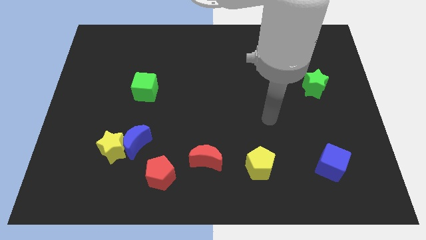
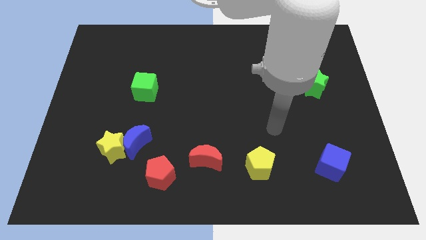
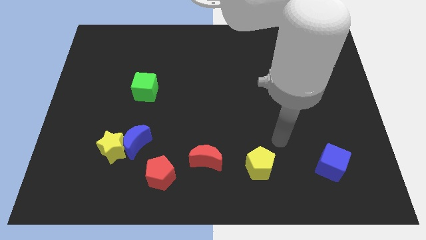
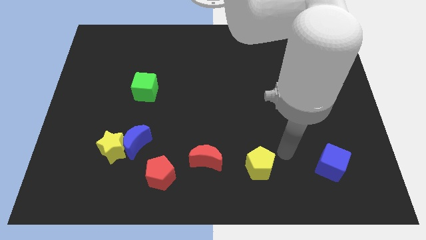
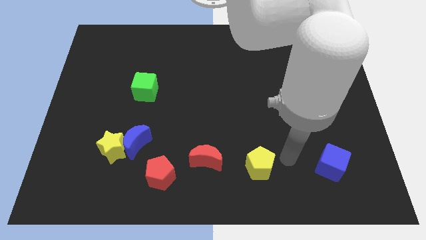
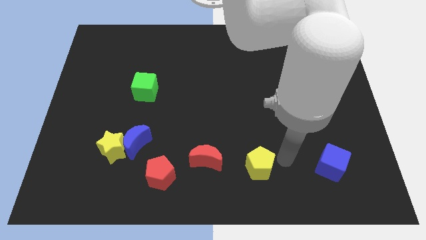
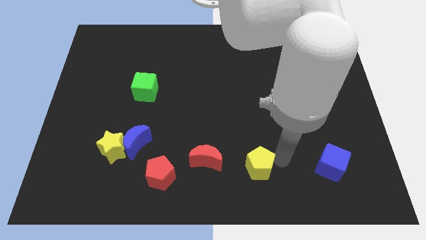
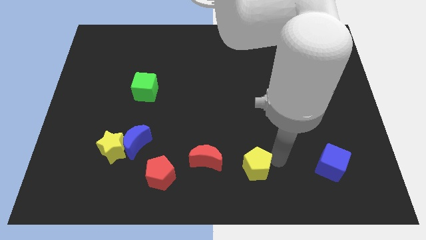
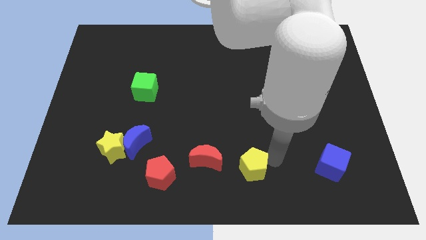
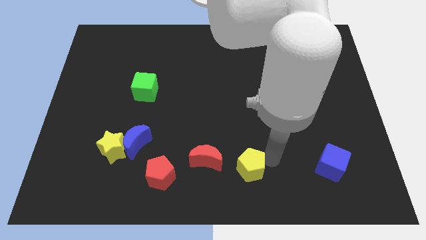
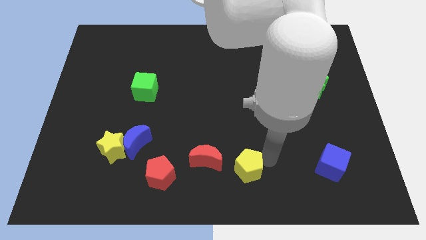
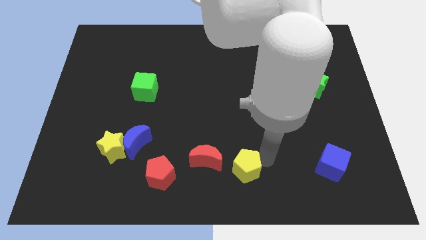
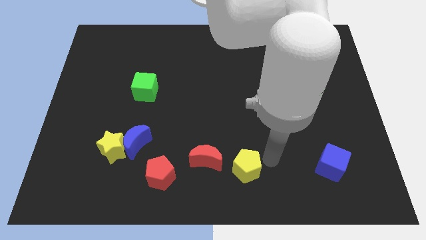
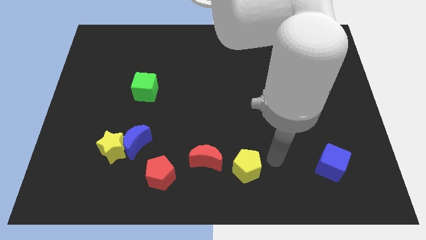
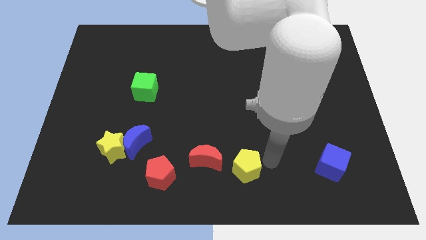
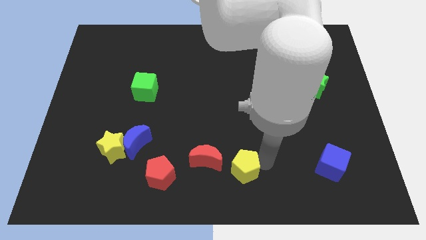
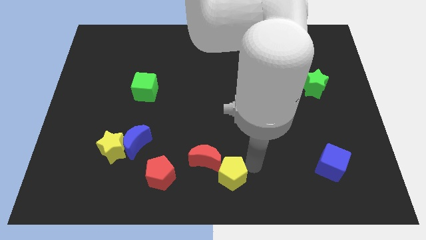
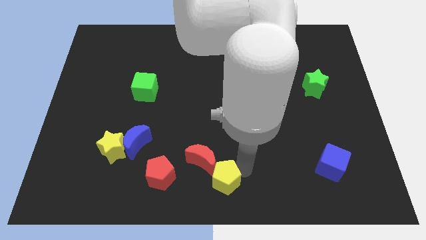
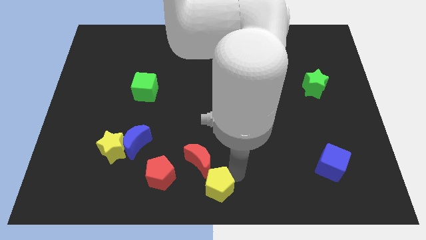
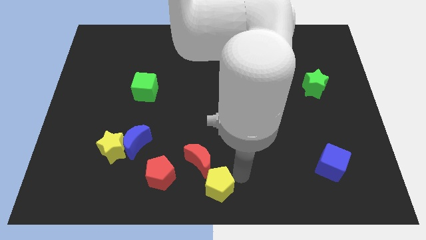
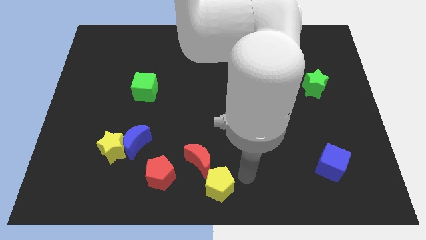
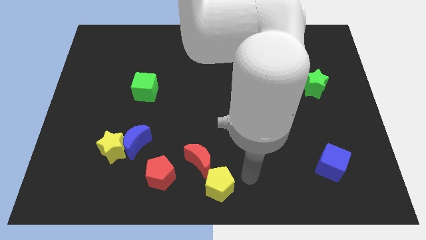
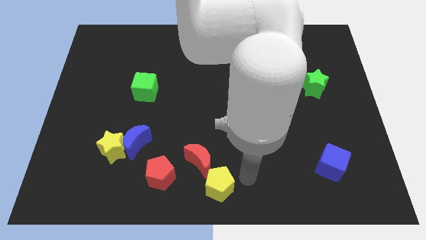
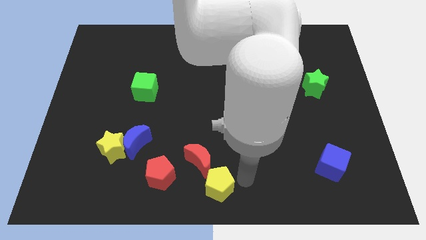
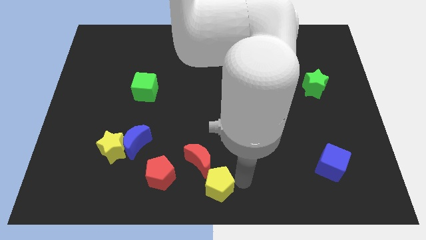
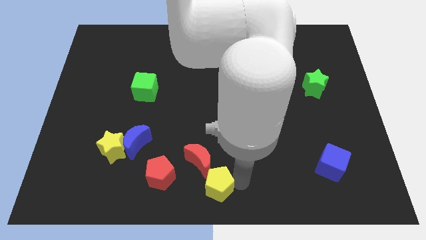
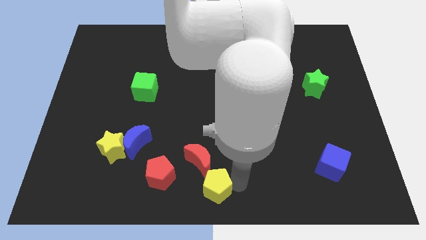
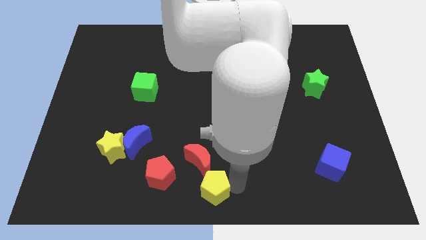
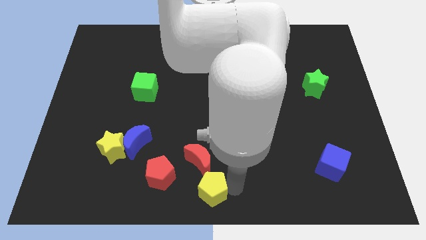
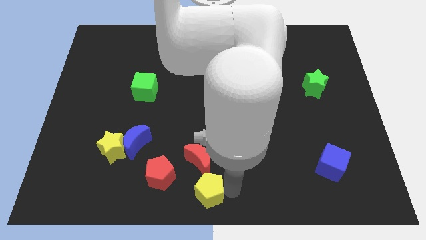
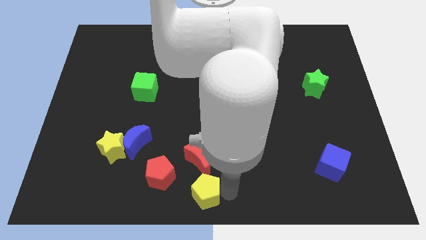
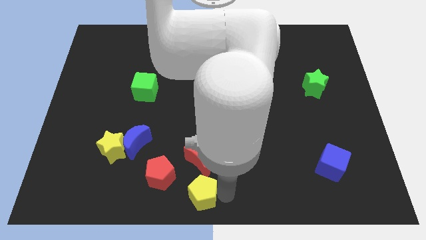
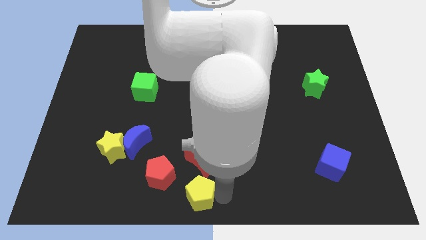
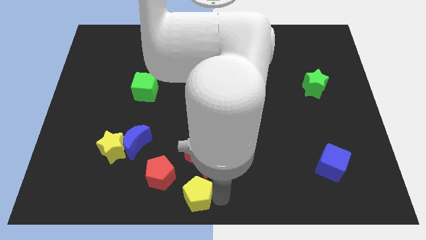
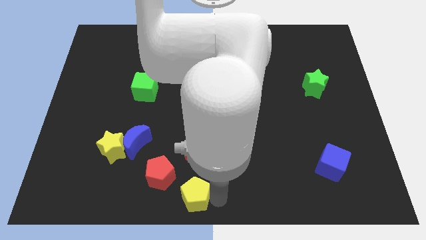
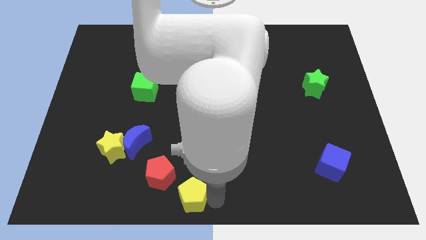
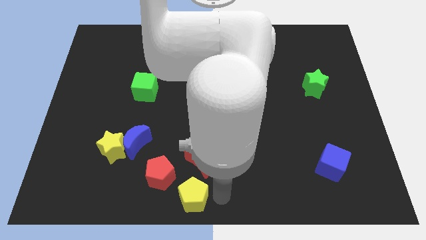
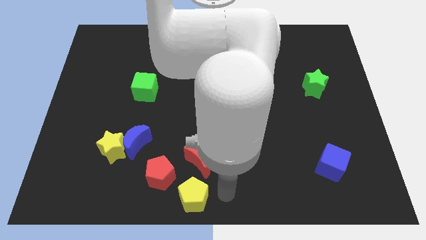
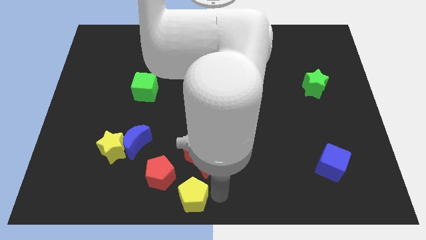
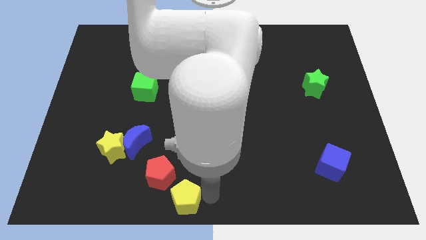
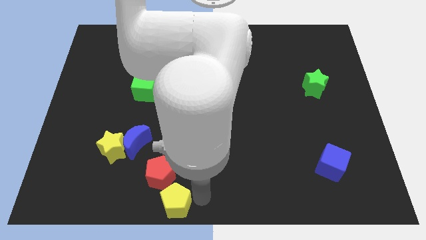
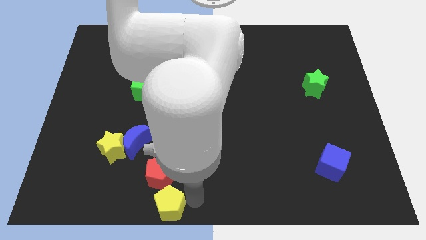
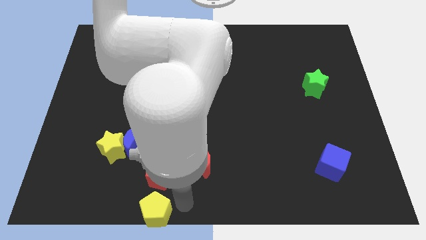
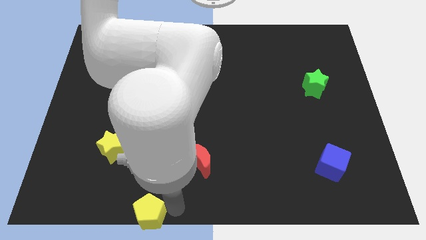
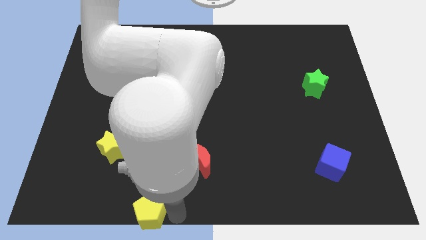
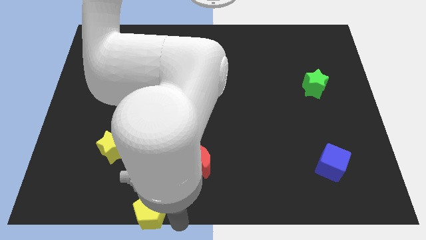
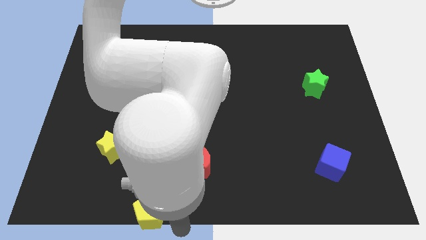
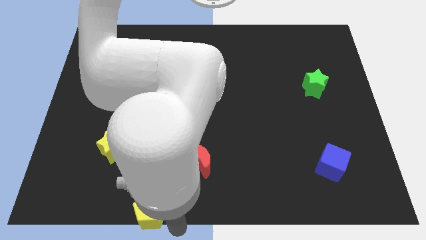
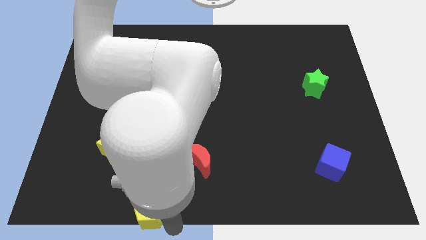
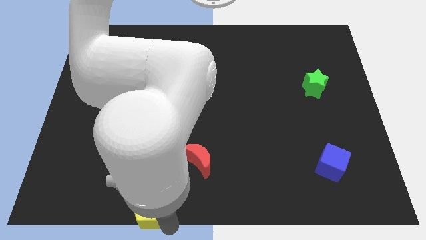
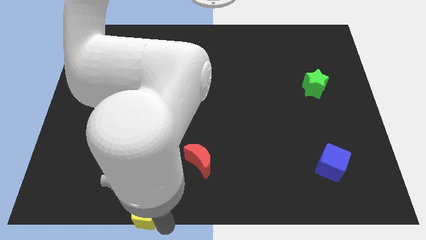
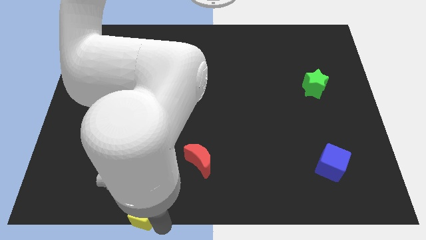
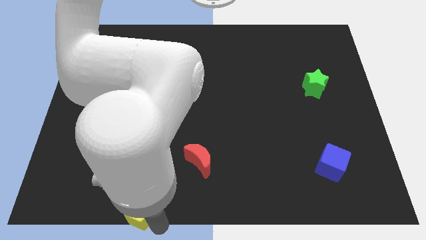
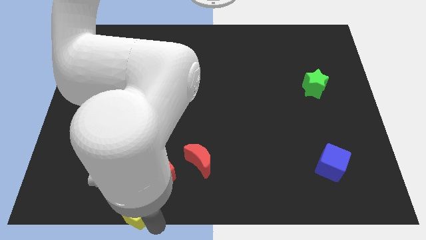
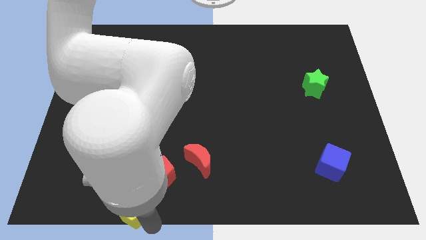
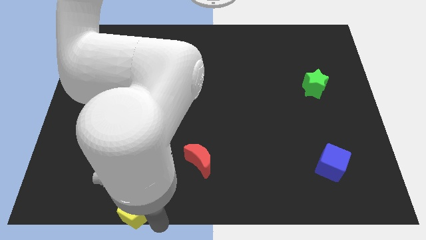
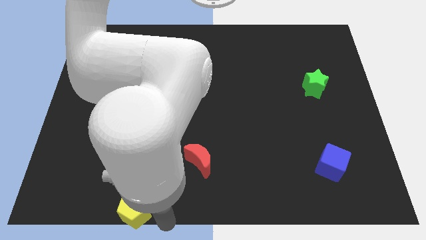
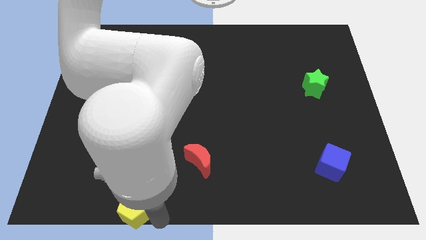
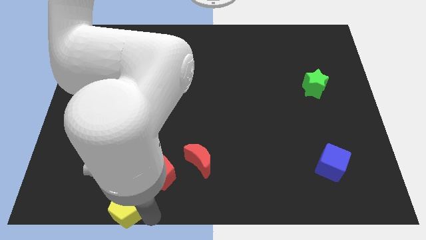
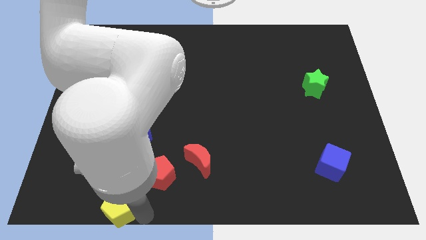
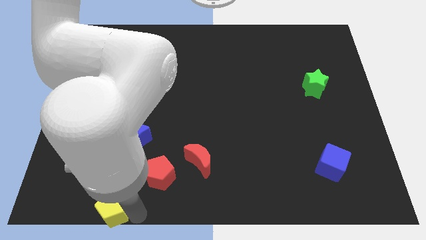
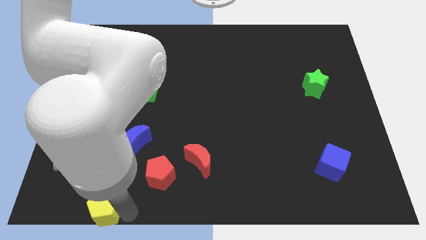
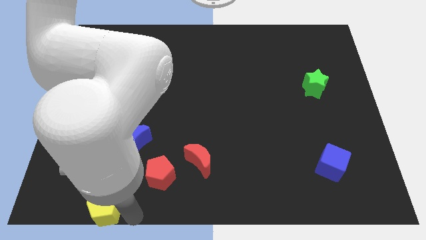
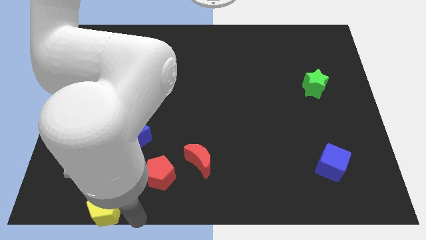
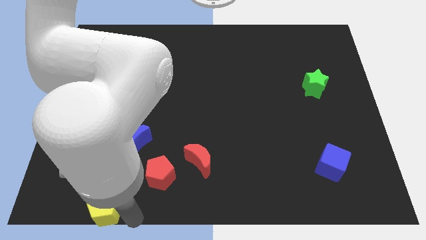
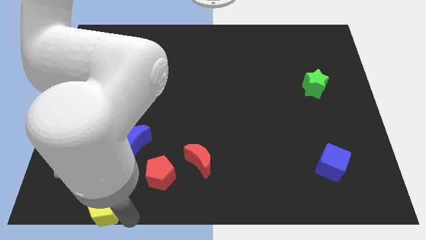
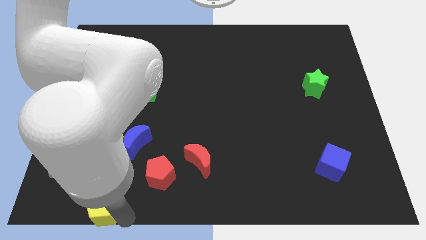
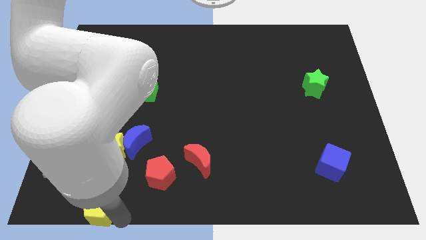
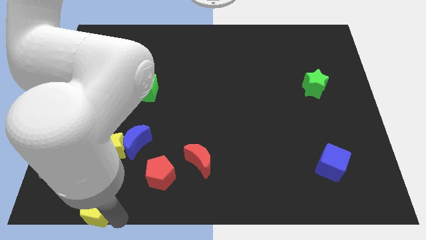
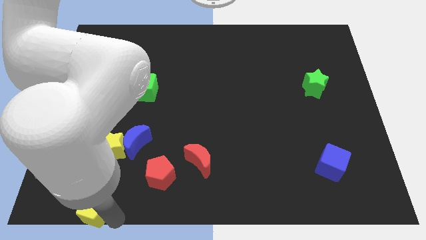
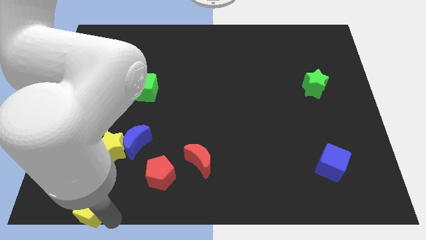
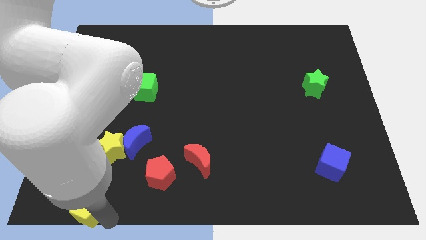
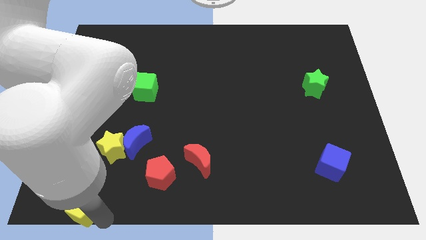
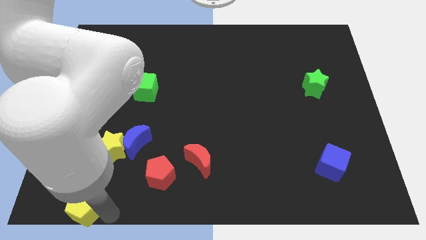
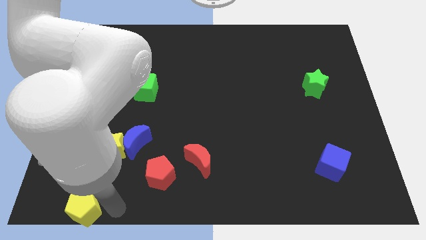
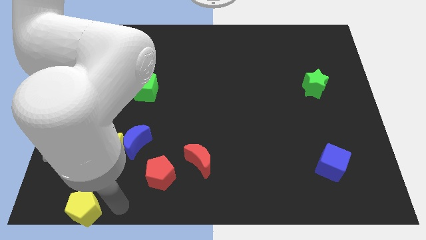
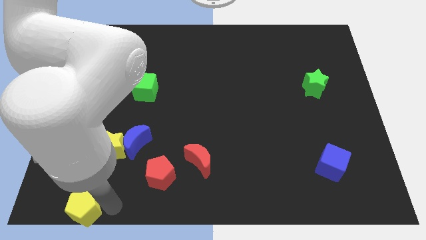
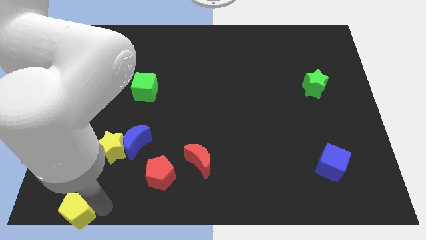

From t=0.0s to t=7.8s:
move the yellow pentagon to the bottom left
